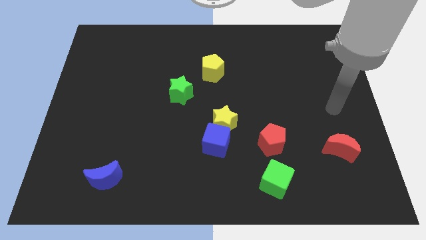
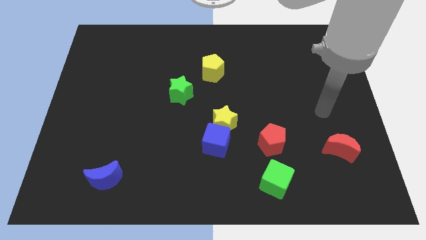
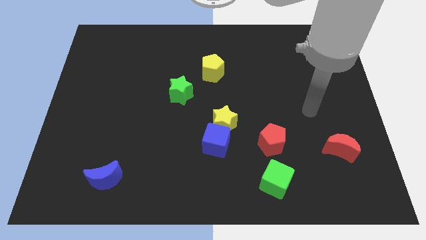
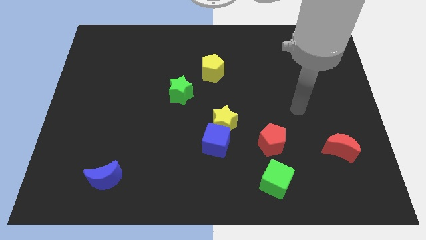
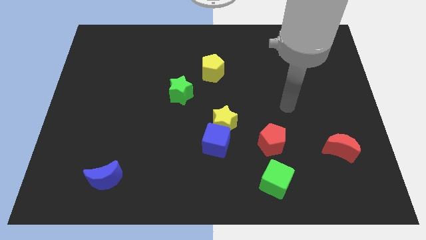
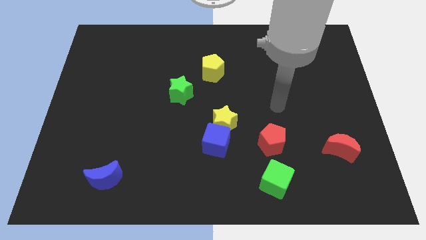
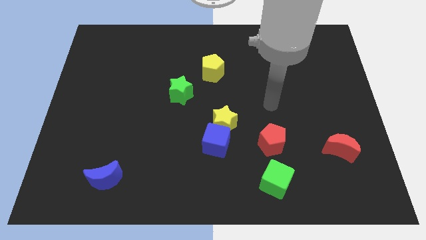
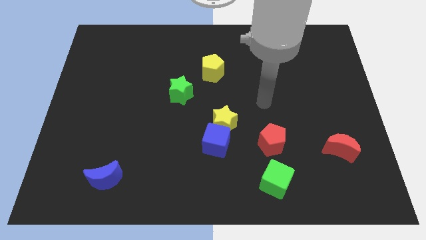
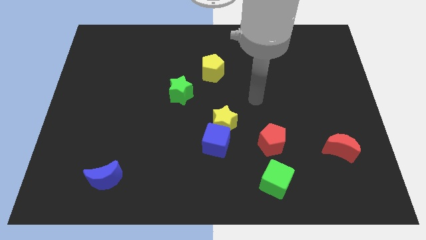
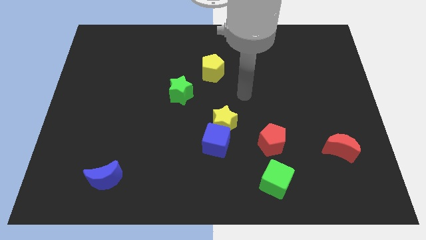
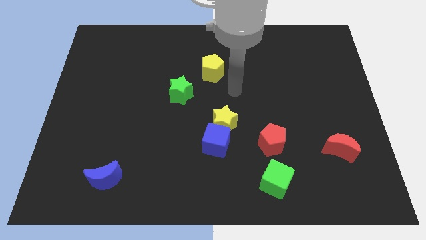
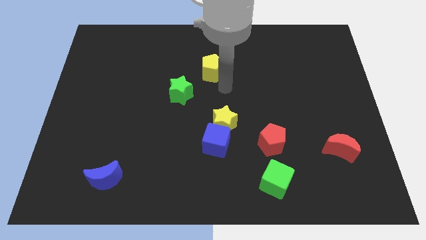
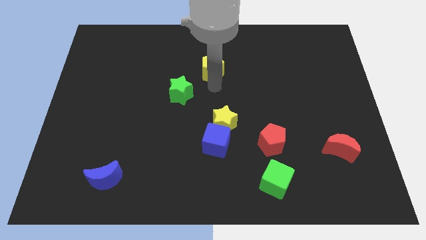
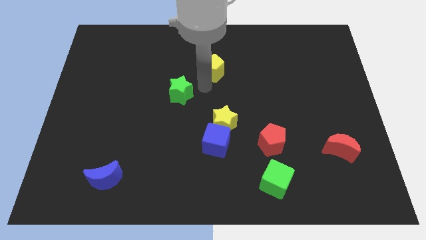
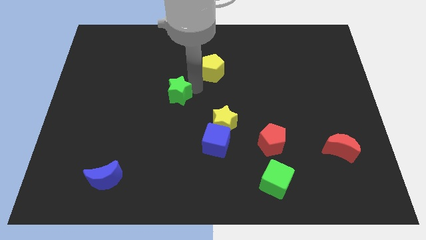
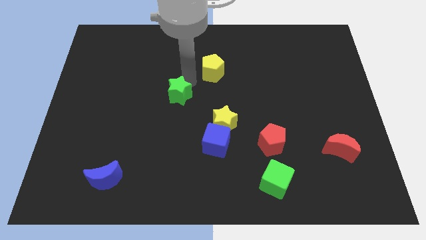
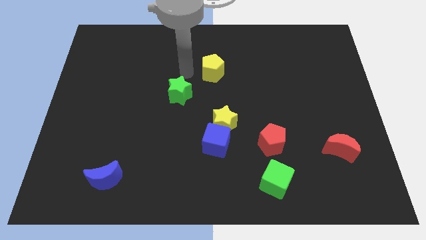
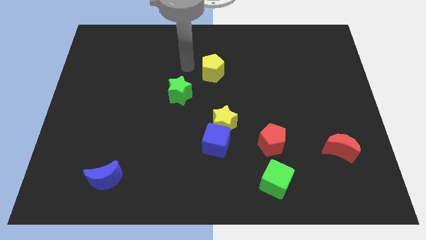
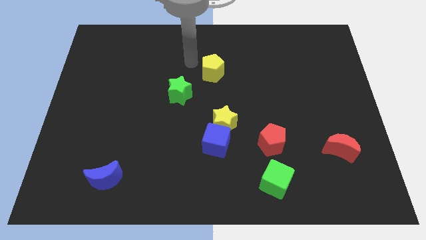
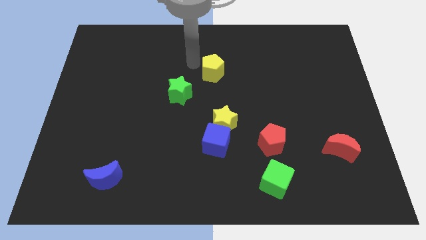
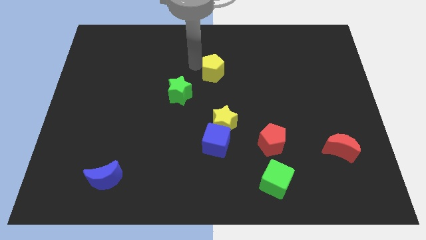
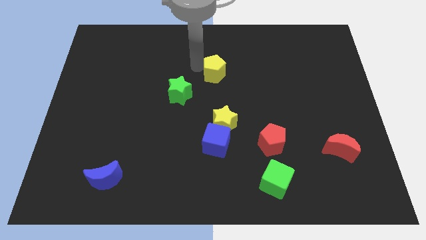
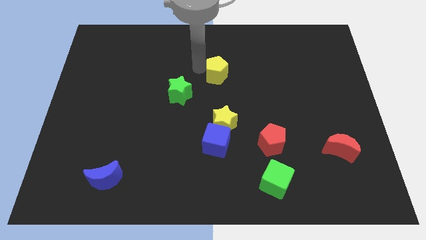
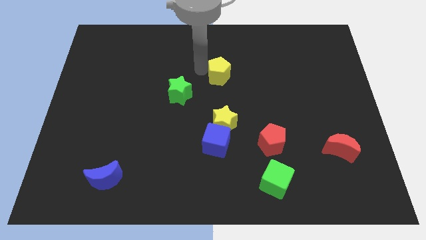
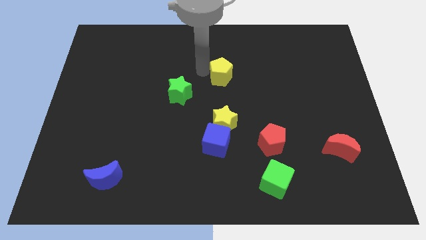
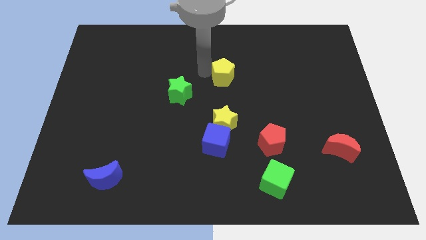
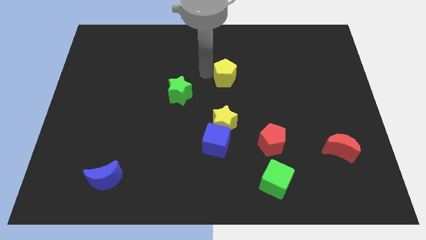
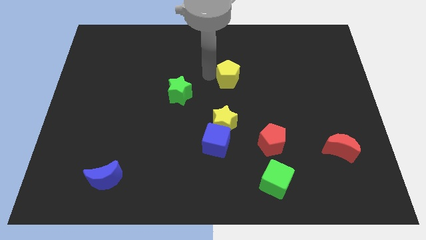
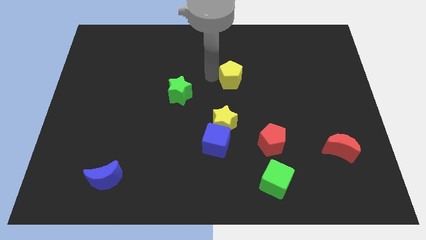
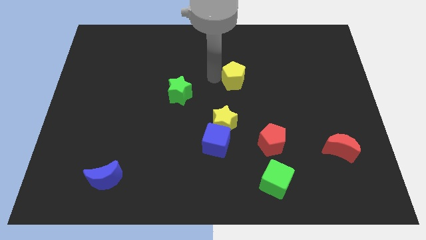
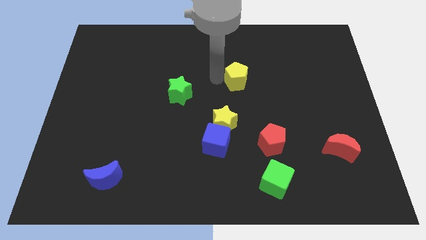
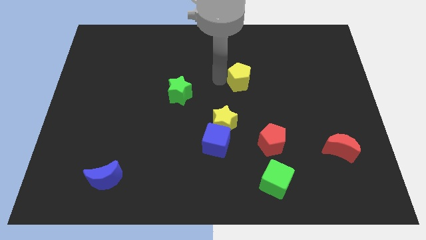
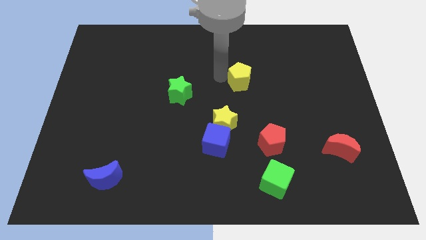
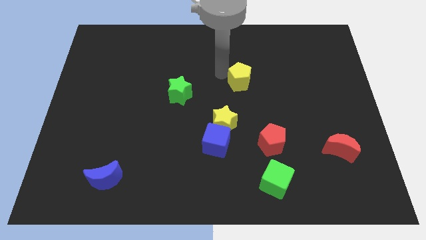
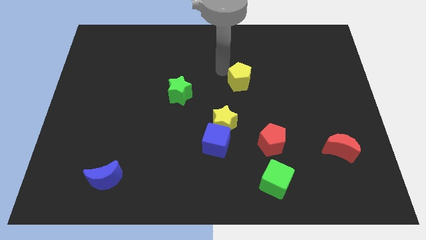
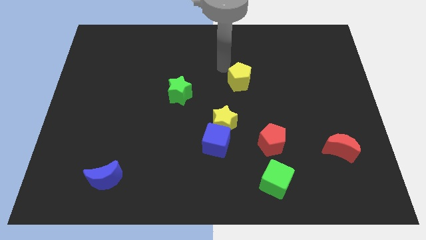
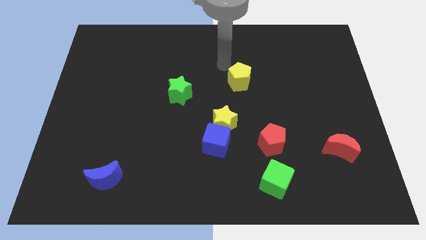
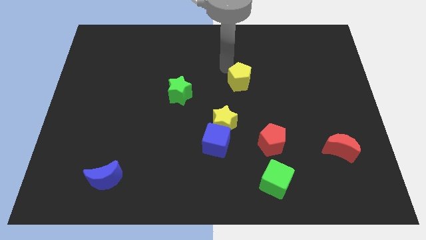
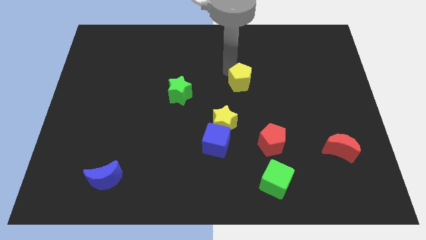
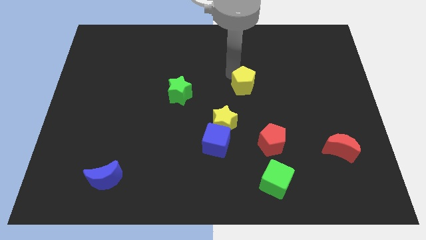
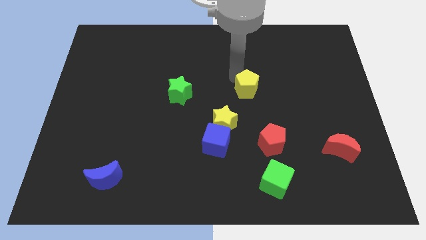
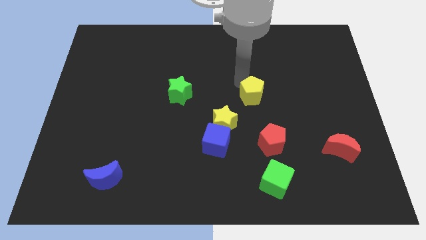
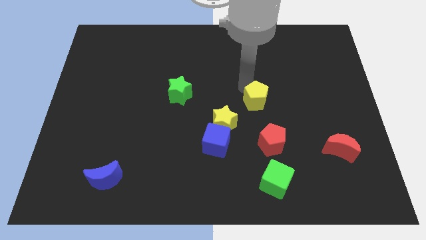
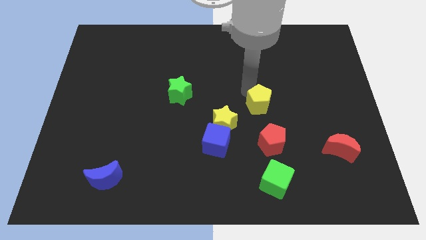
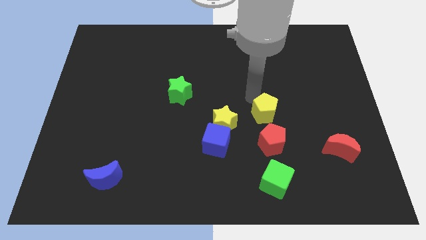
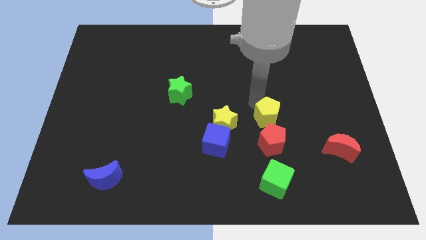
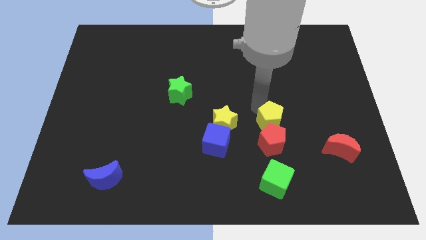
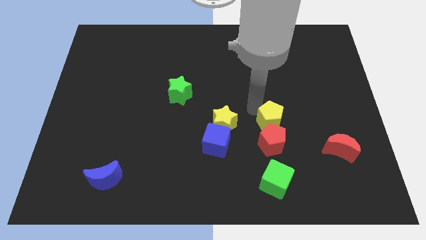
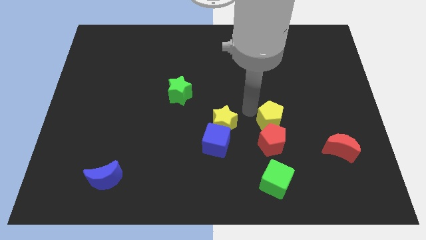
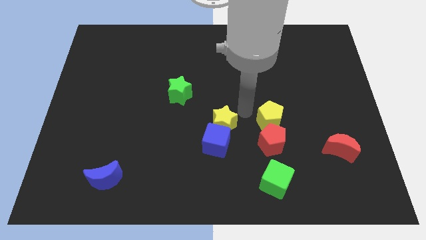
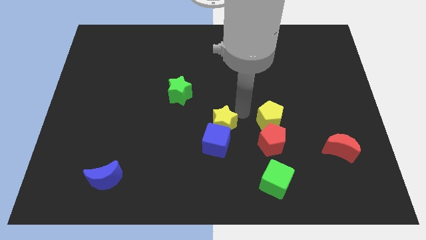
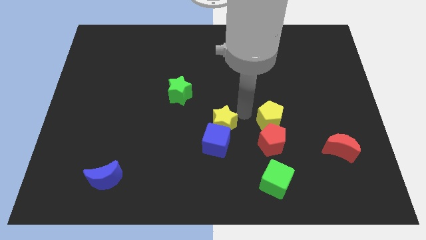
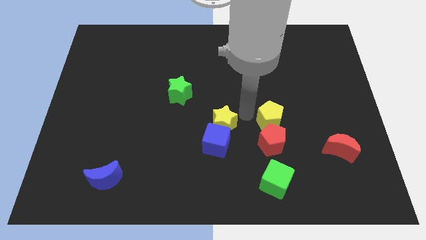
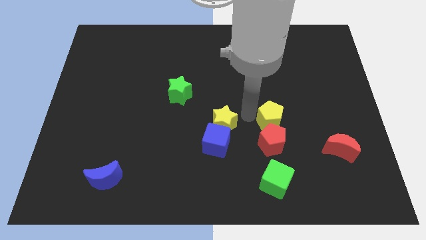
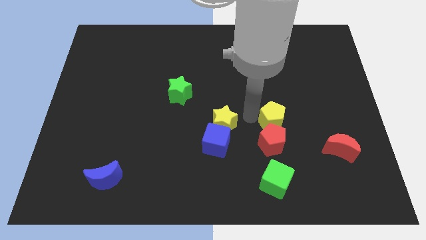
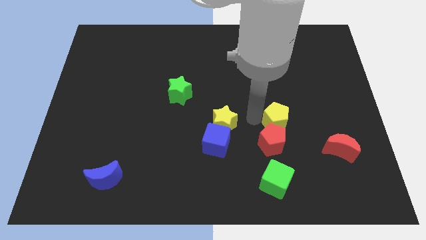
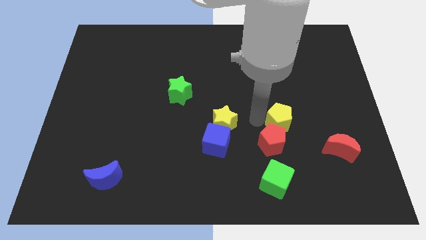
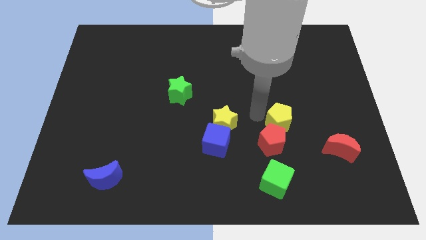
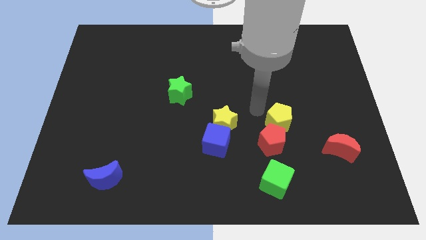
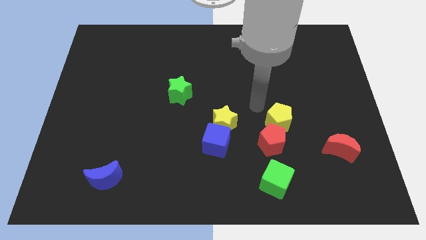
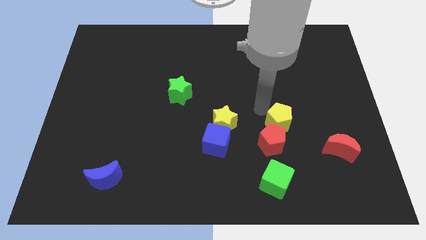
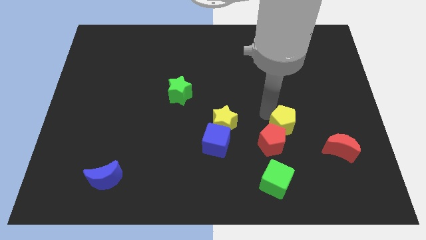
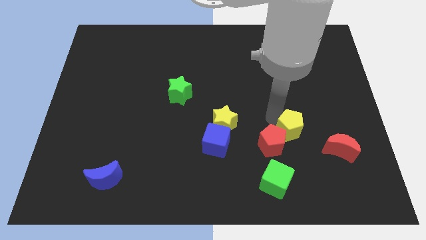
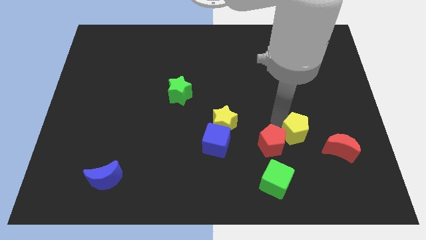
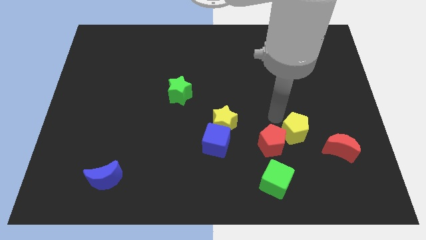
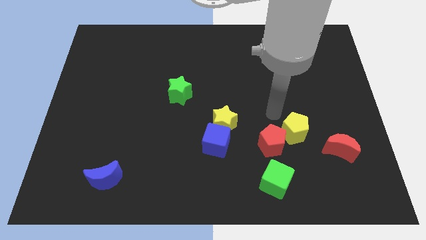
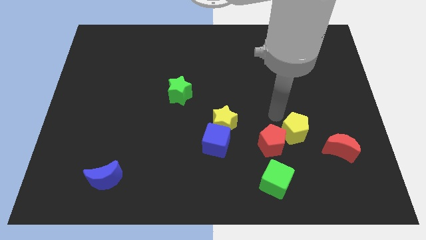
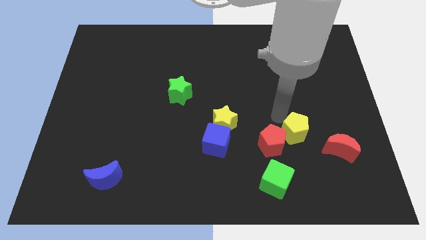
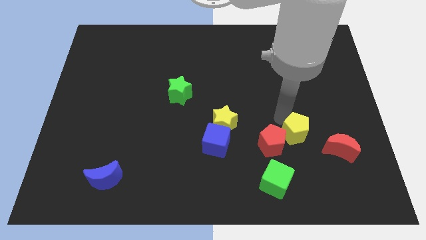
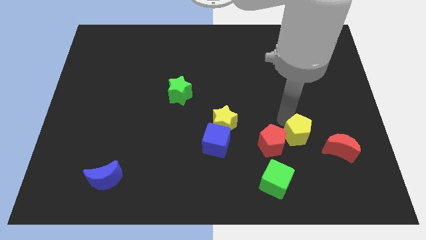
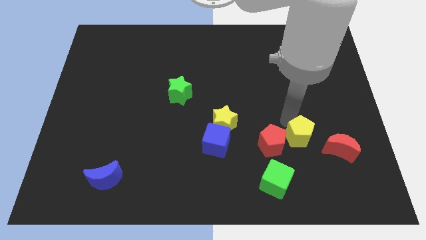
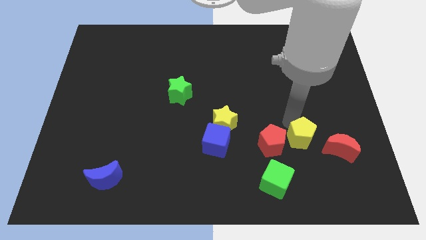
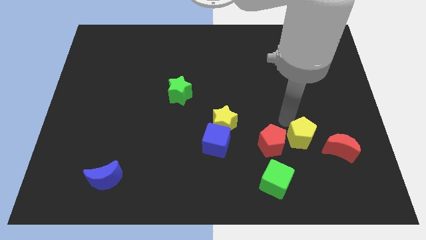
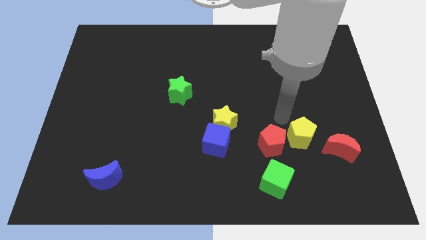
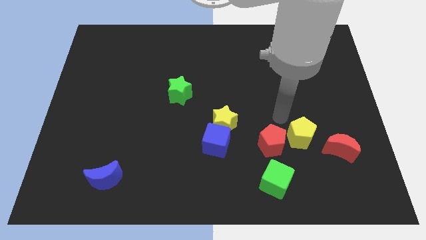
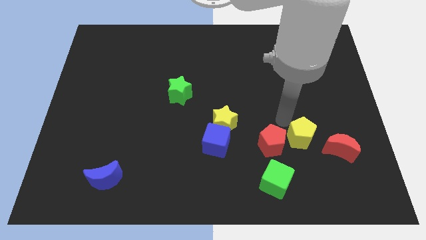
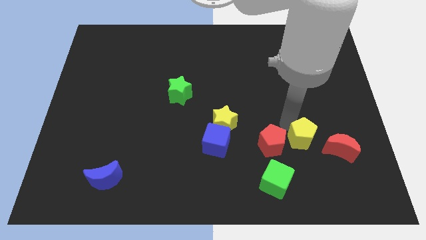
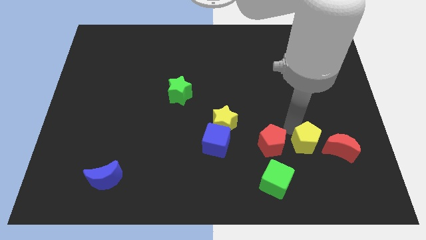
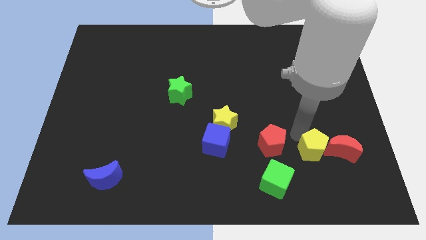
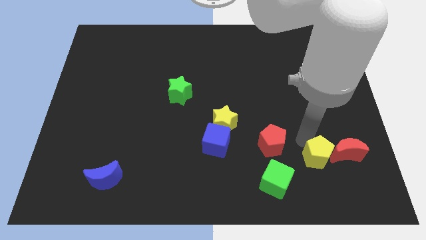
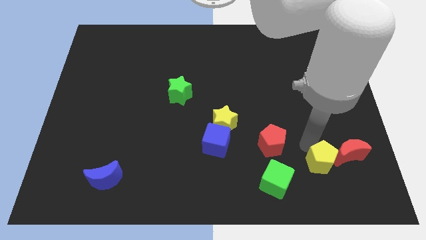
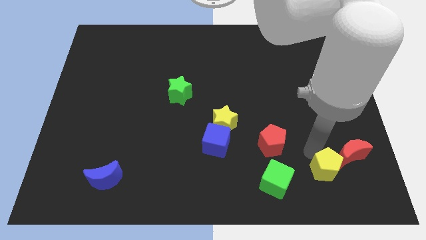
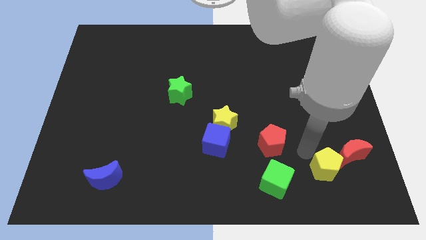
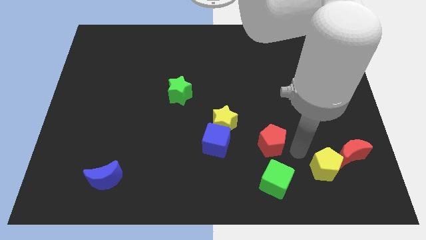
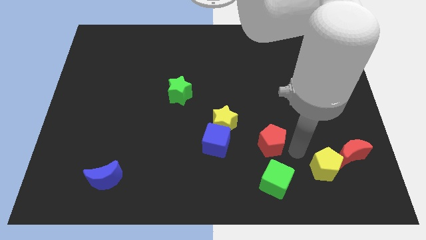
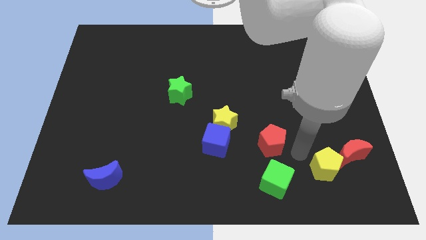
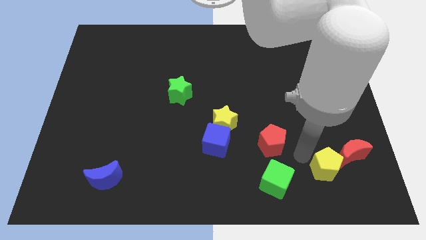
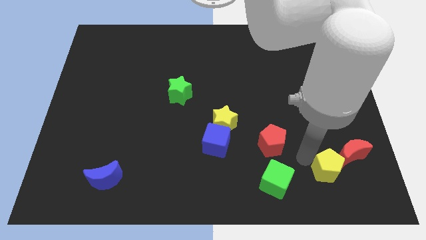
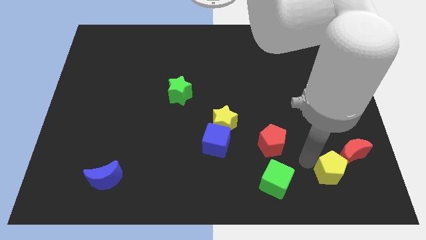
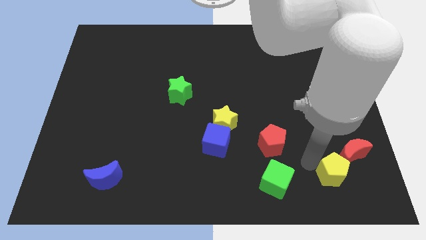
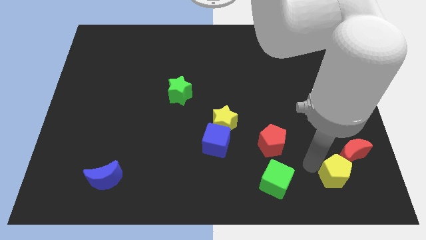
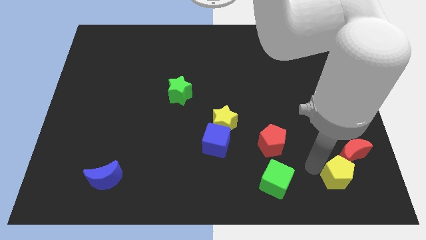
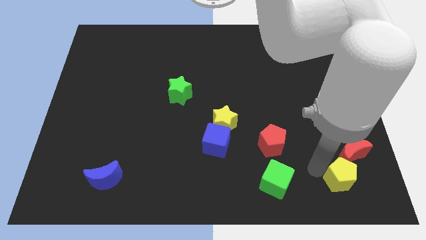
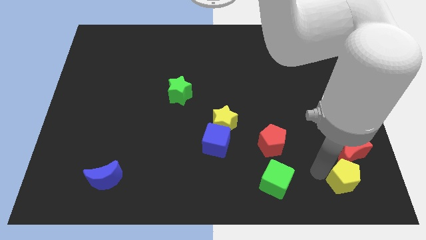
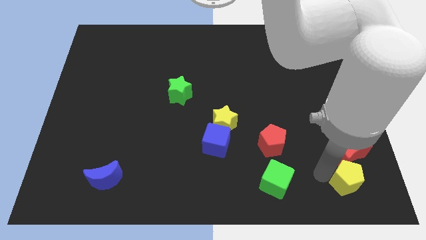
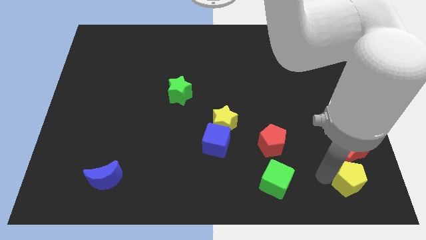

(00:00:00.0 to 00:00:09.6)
slide the yellow pentagon to the lower right corner
